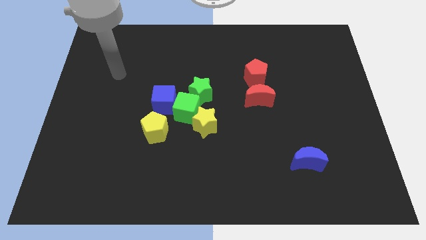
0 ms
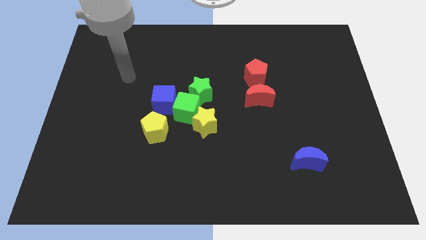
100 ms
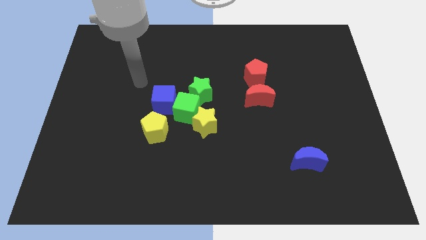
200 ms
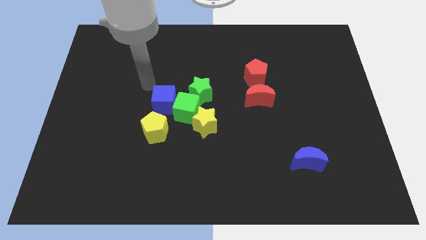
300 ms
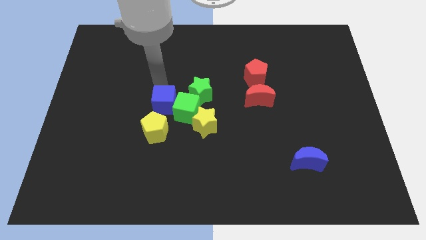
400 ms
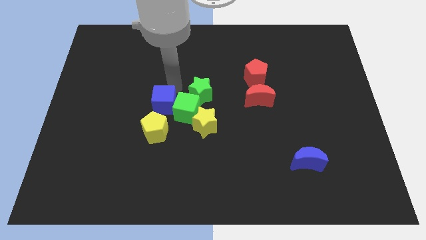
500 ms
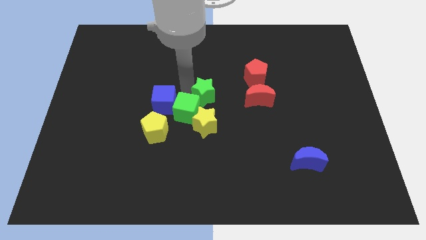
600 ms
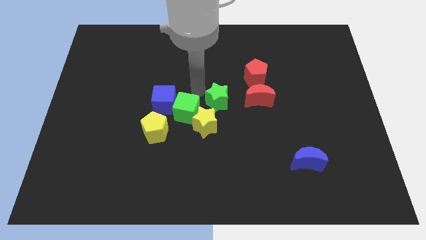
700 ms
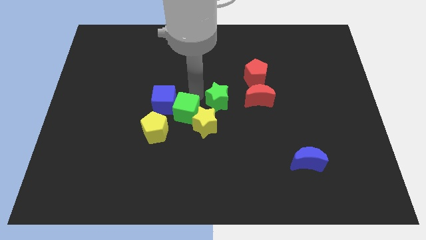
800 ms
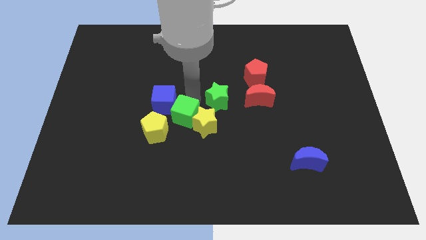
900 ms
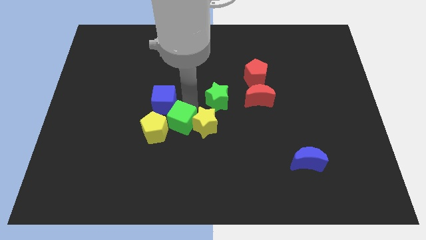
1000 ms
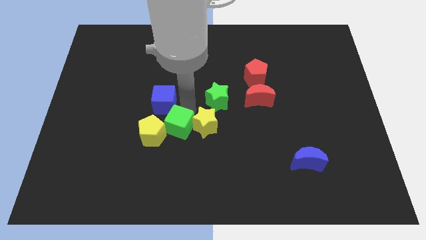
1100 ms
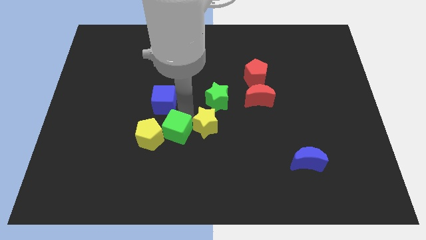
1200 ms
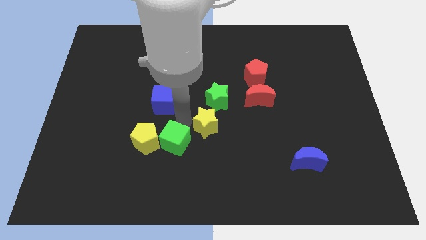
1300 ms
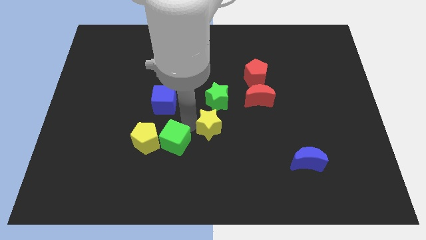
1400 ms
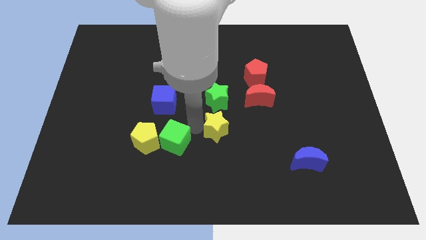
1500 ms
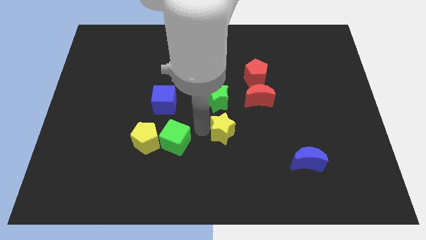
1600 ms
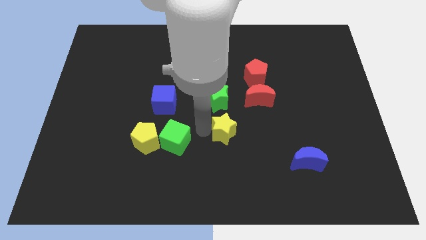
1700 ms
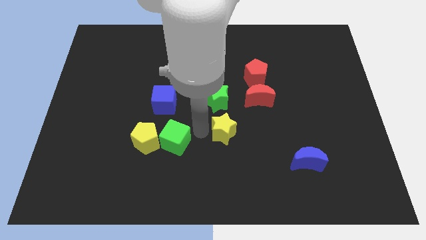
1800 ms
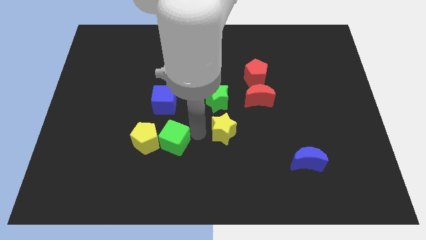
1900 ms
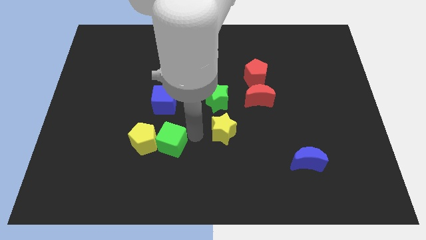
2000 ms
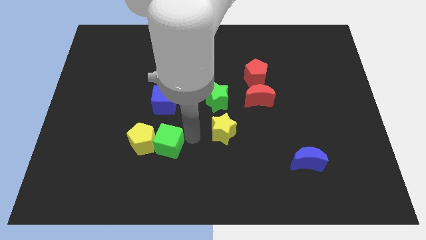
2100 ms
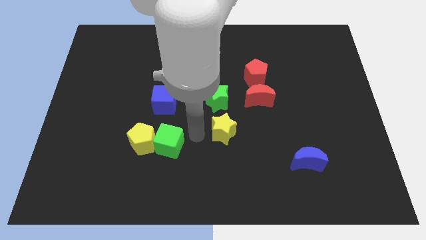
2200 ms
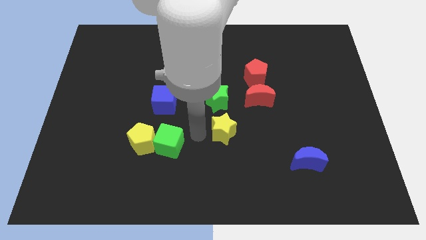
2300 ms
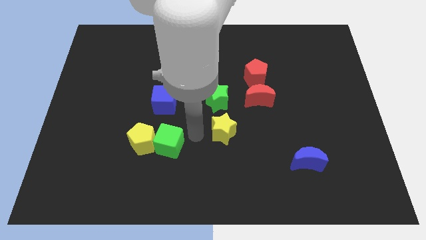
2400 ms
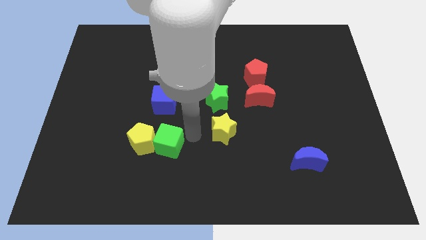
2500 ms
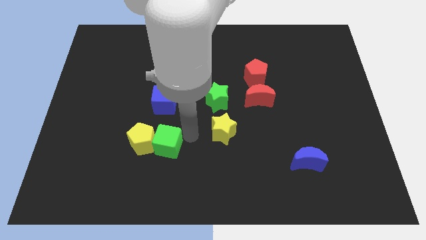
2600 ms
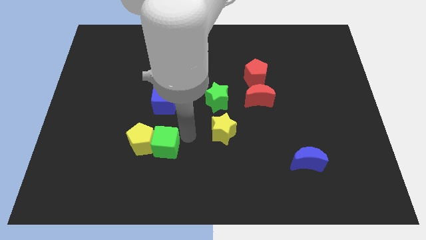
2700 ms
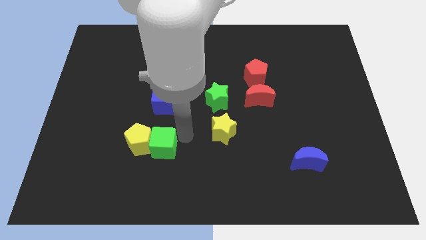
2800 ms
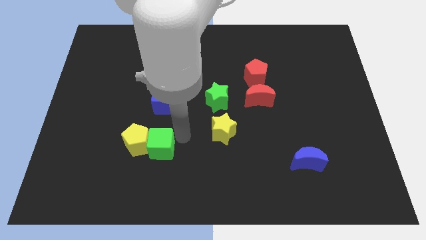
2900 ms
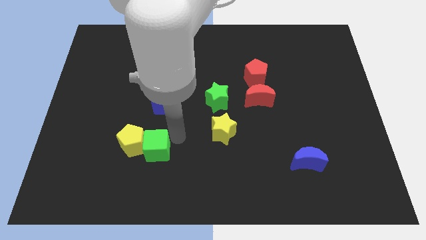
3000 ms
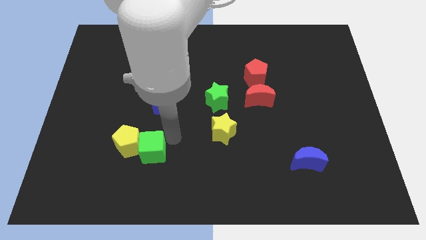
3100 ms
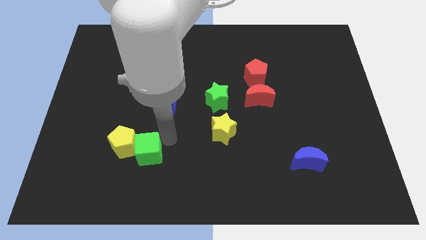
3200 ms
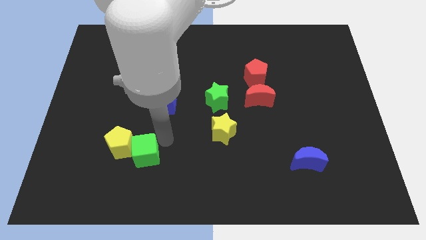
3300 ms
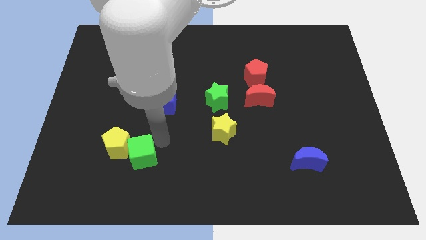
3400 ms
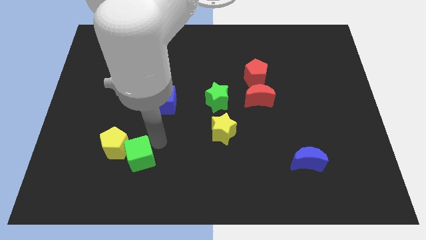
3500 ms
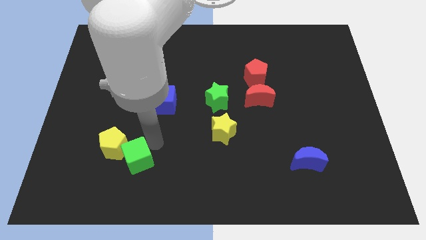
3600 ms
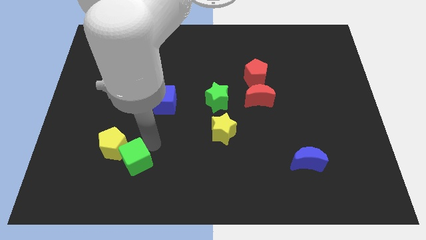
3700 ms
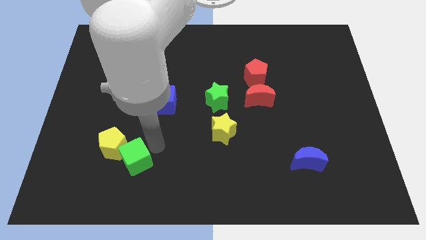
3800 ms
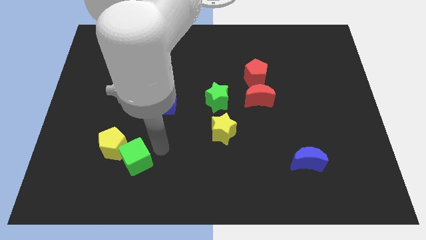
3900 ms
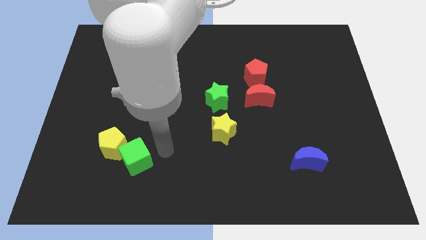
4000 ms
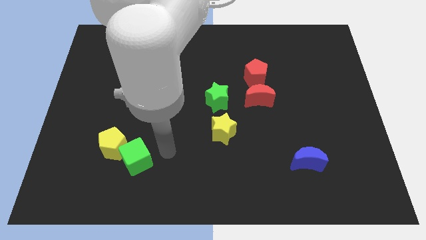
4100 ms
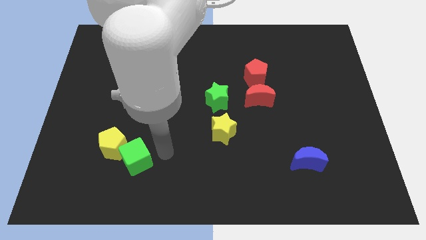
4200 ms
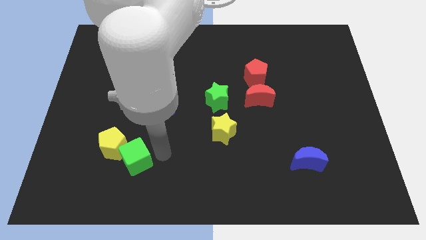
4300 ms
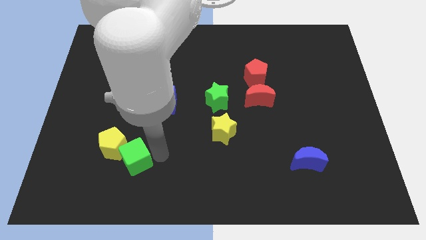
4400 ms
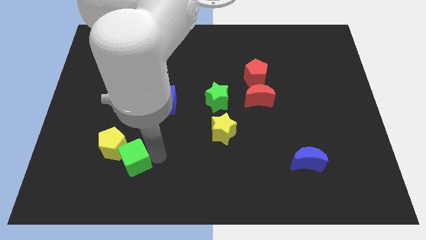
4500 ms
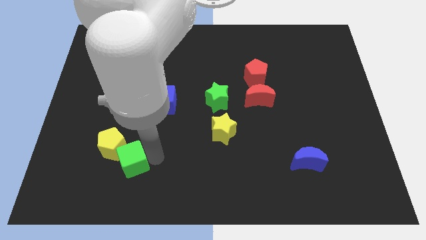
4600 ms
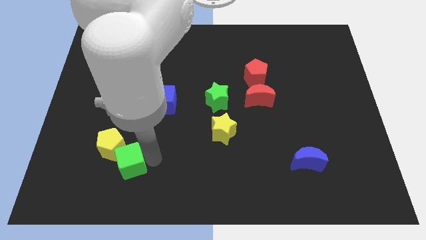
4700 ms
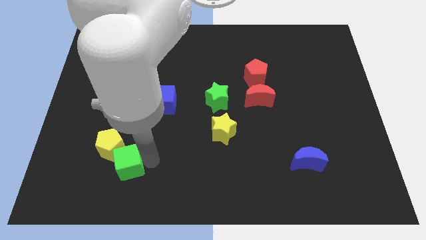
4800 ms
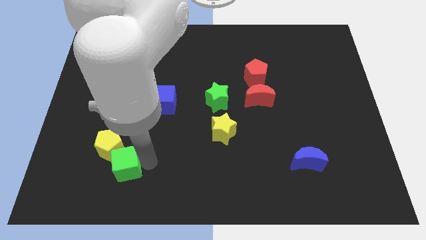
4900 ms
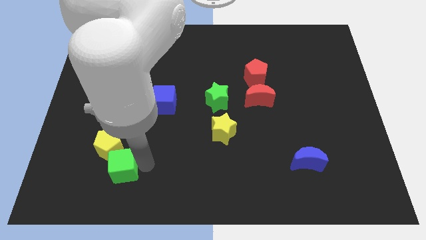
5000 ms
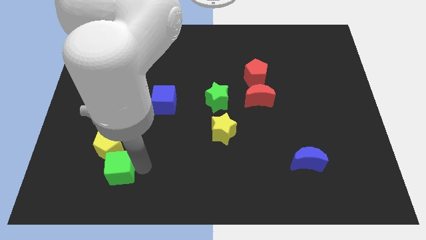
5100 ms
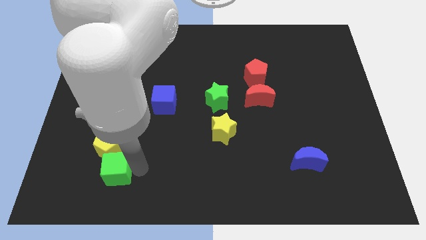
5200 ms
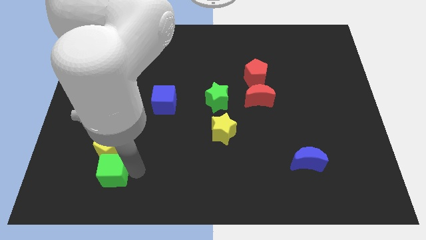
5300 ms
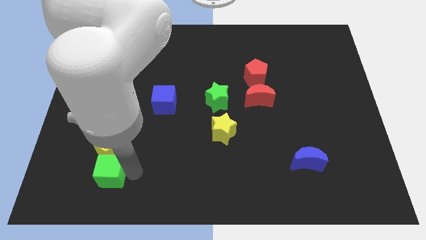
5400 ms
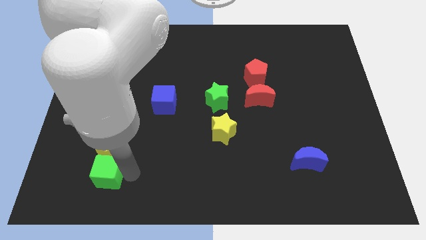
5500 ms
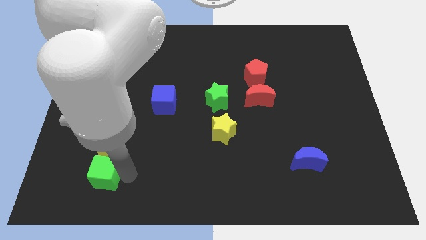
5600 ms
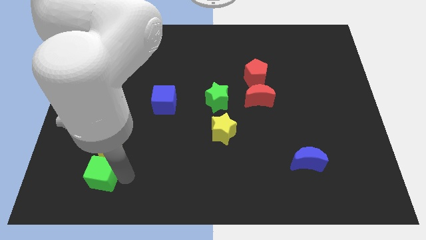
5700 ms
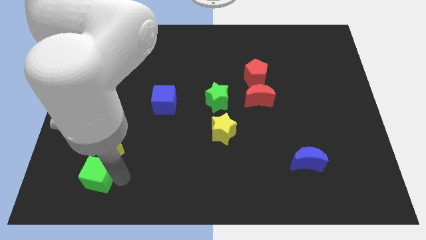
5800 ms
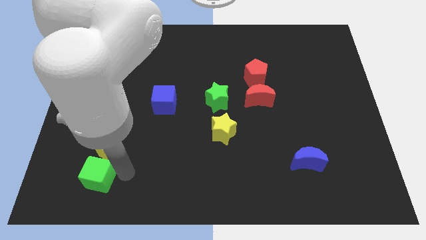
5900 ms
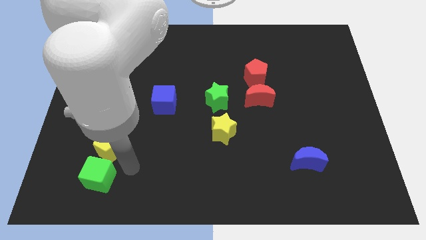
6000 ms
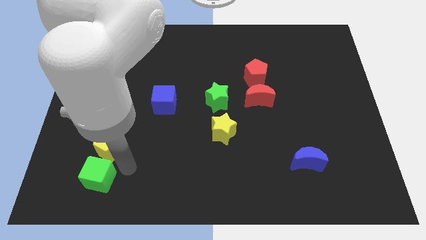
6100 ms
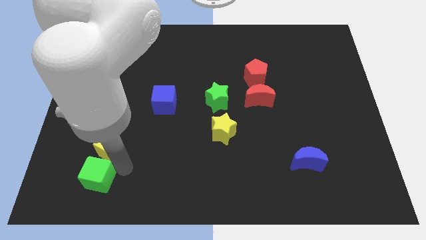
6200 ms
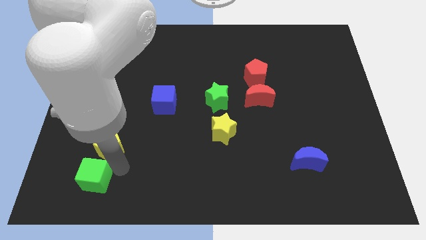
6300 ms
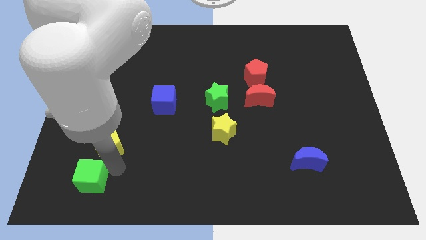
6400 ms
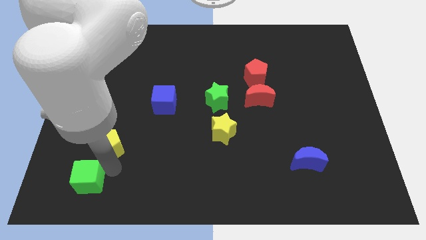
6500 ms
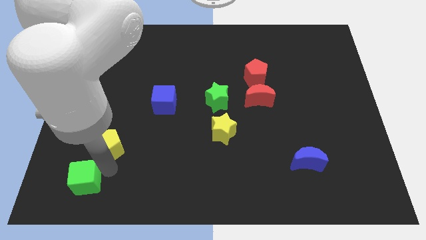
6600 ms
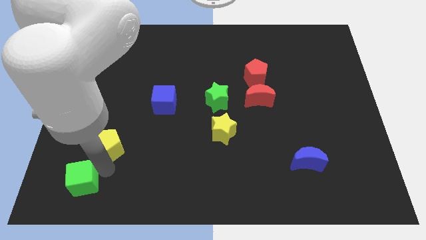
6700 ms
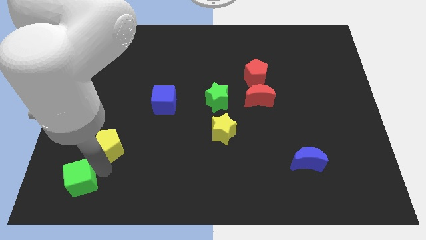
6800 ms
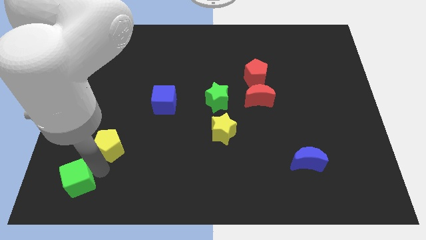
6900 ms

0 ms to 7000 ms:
move the green cube to the bottom left of the board
